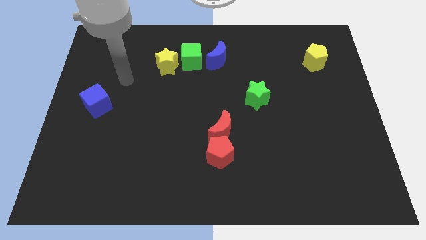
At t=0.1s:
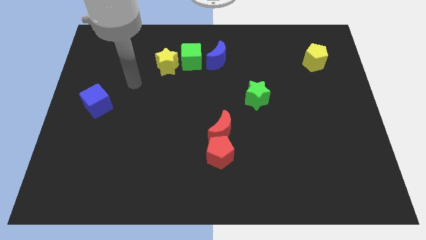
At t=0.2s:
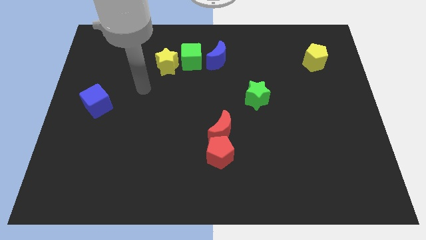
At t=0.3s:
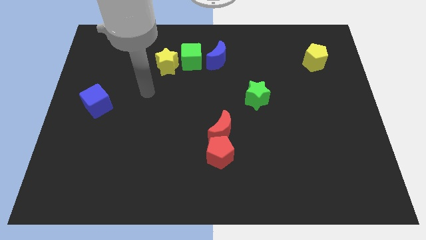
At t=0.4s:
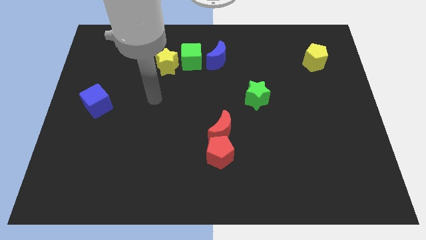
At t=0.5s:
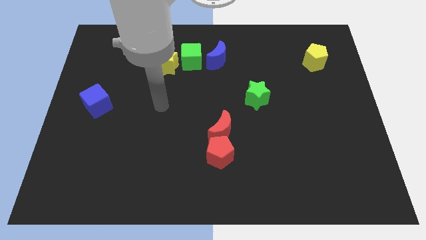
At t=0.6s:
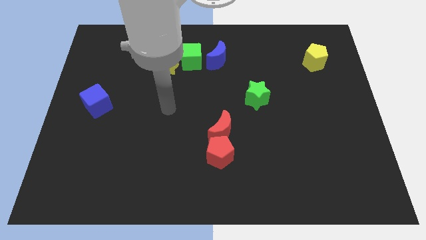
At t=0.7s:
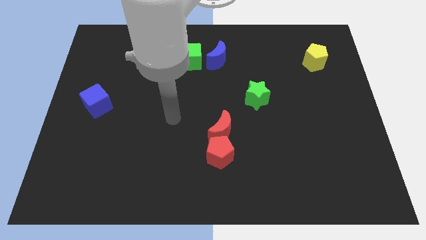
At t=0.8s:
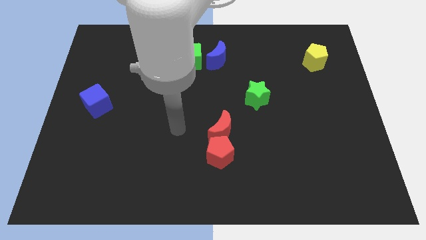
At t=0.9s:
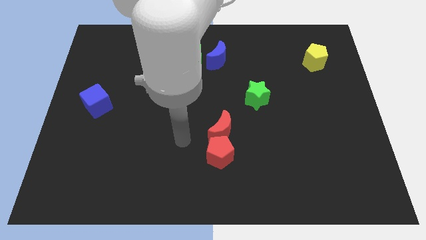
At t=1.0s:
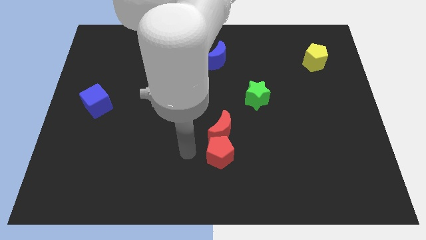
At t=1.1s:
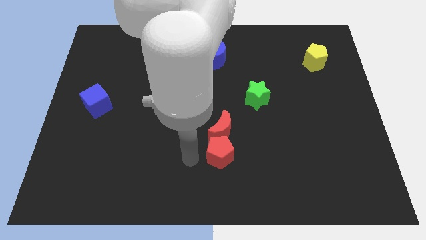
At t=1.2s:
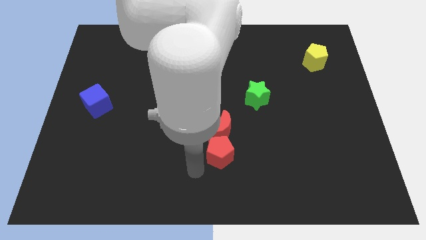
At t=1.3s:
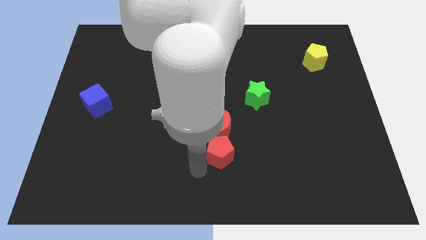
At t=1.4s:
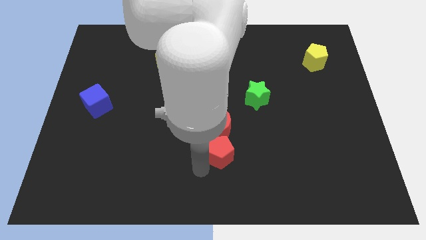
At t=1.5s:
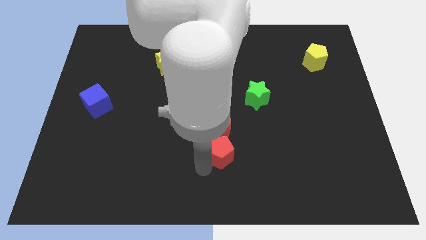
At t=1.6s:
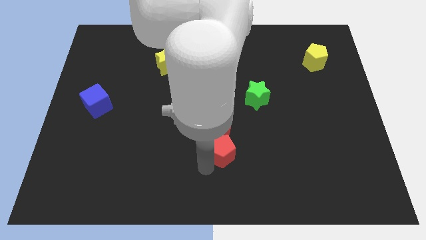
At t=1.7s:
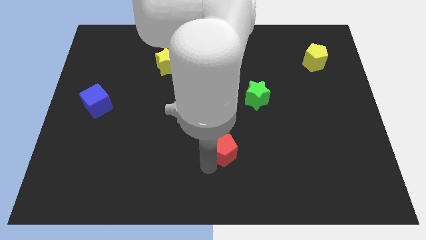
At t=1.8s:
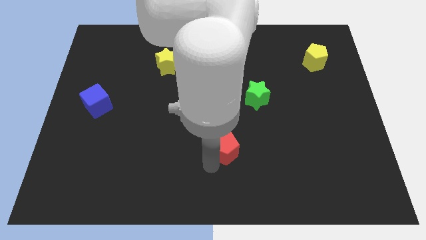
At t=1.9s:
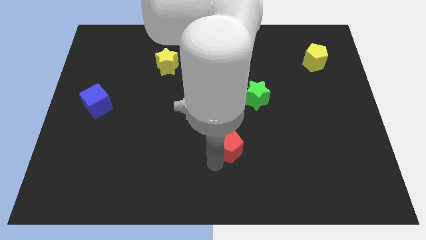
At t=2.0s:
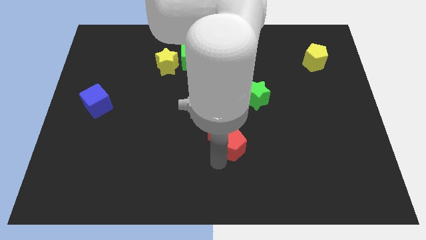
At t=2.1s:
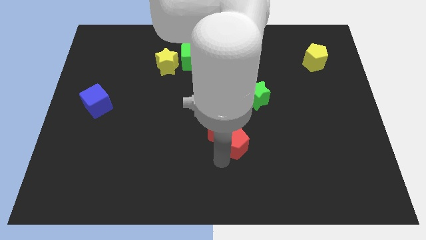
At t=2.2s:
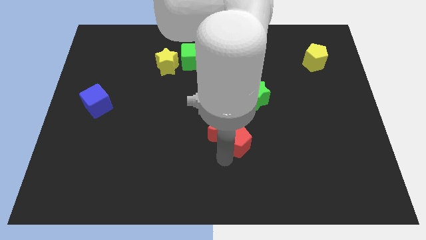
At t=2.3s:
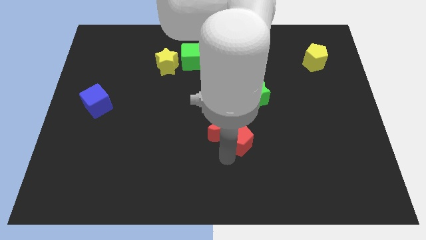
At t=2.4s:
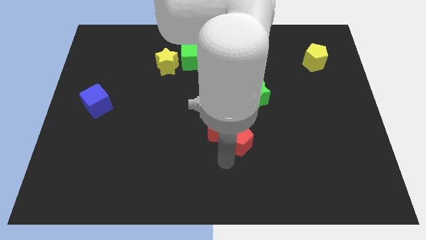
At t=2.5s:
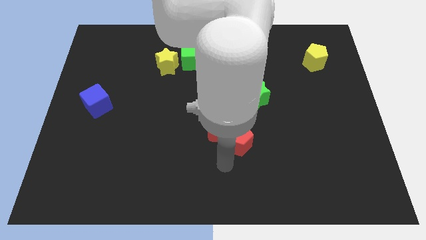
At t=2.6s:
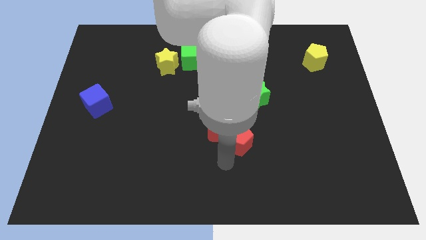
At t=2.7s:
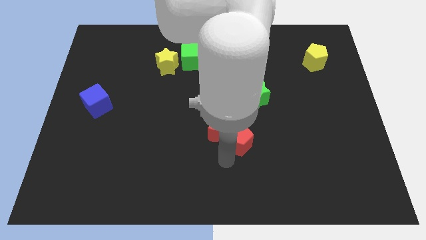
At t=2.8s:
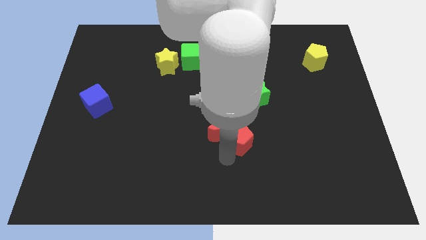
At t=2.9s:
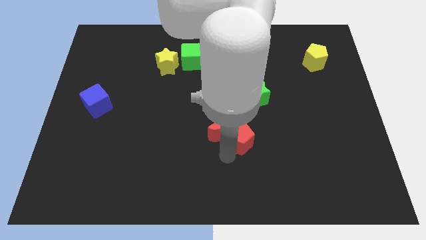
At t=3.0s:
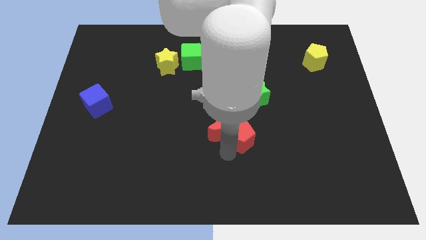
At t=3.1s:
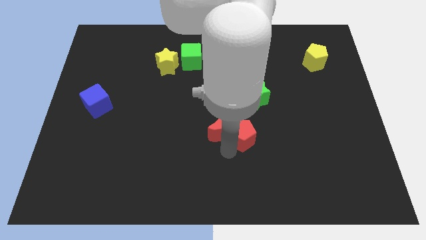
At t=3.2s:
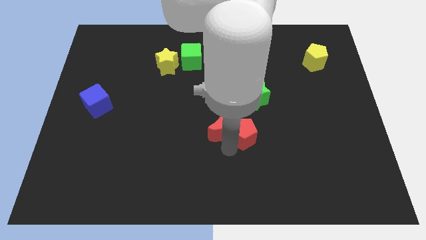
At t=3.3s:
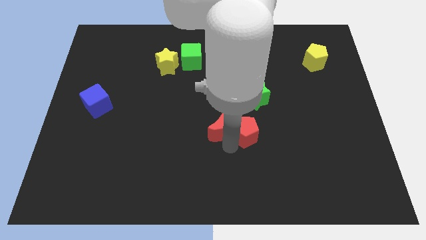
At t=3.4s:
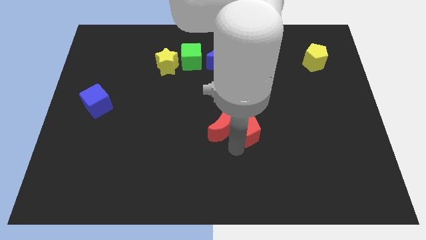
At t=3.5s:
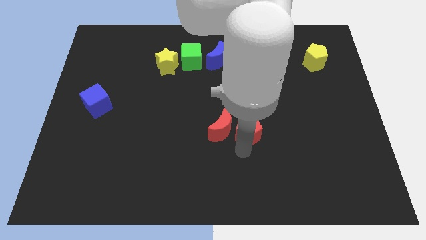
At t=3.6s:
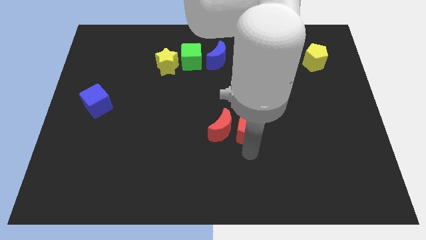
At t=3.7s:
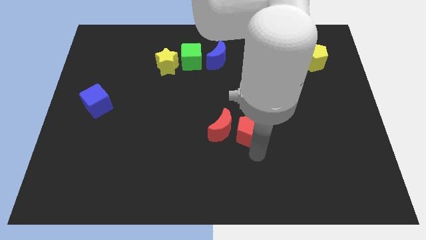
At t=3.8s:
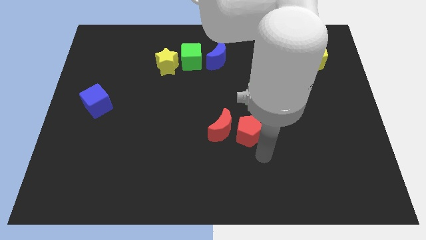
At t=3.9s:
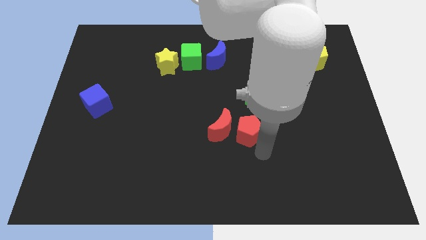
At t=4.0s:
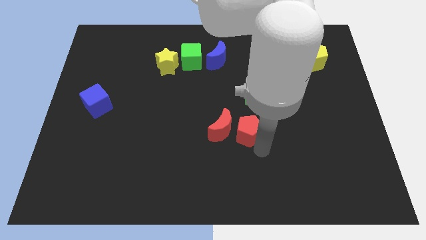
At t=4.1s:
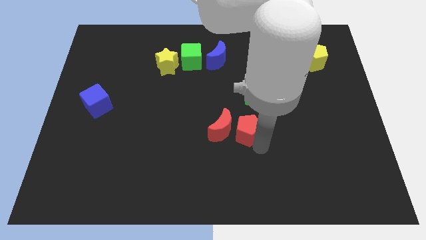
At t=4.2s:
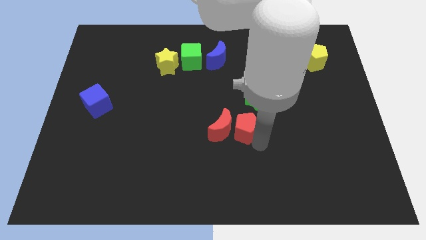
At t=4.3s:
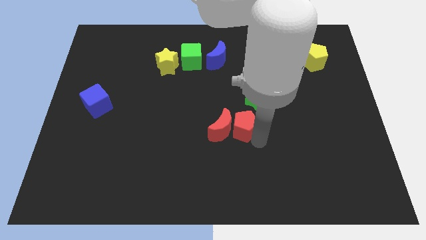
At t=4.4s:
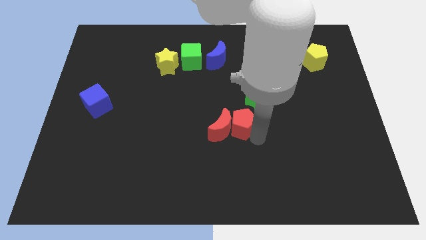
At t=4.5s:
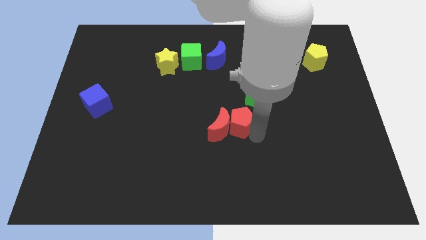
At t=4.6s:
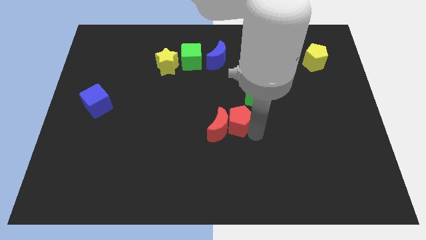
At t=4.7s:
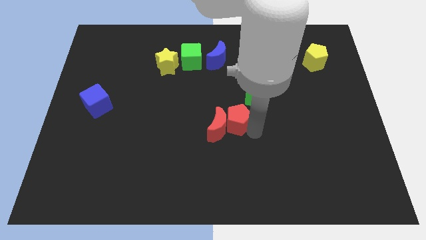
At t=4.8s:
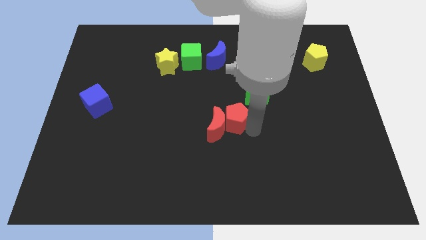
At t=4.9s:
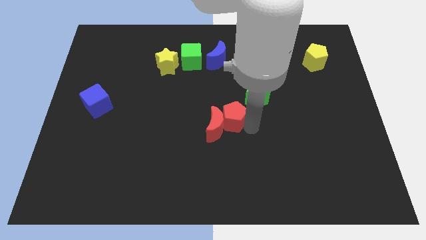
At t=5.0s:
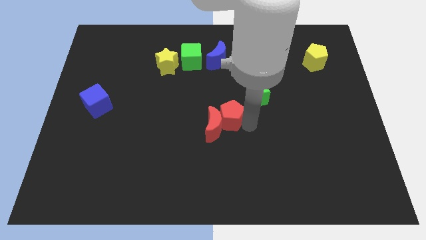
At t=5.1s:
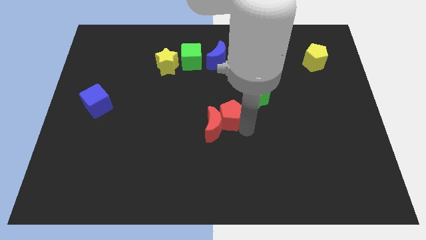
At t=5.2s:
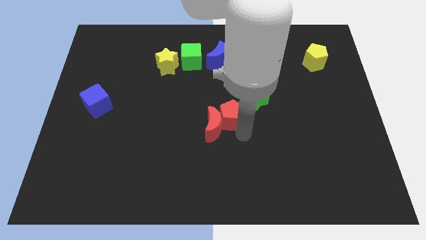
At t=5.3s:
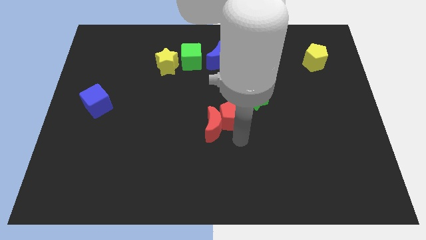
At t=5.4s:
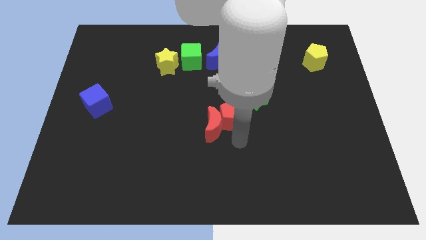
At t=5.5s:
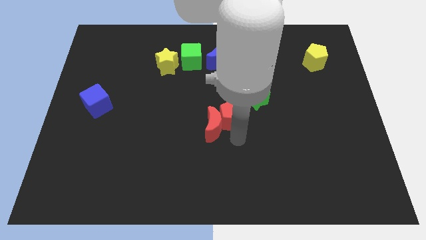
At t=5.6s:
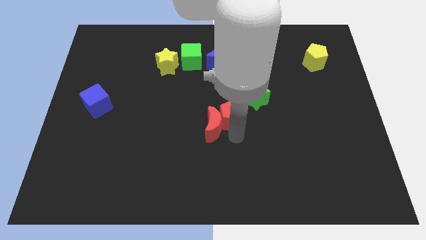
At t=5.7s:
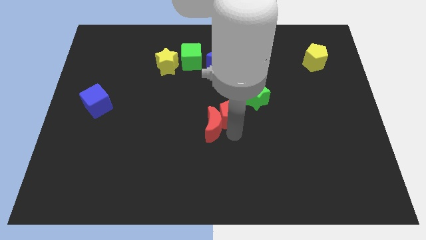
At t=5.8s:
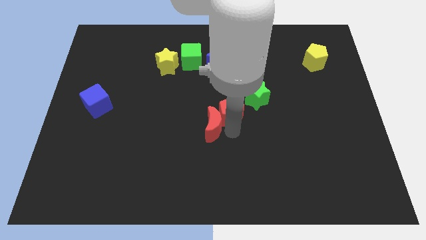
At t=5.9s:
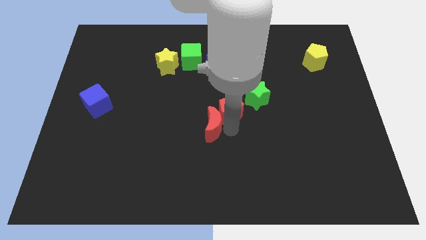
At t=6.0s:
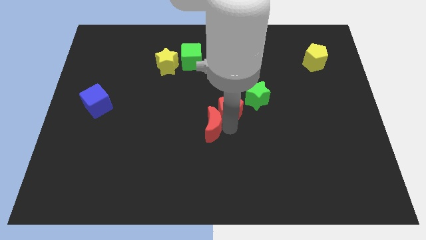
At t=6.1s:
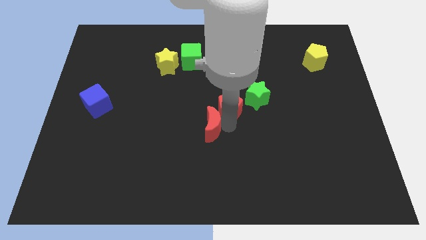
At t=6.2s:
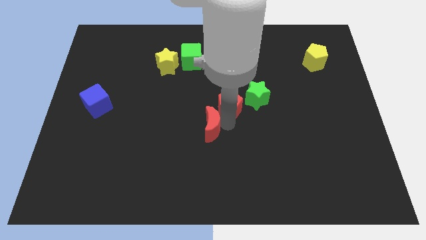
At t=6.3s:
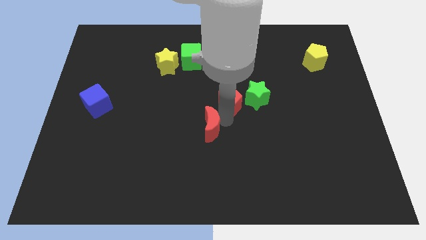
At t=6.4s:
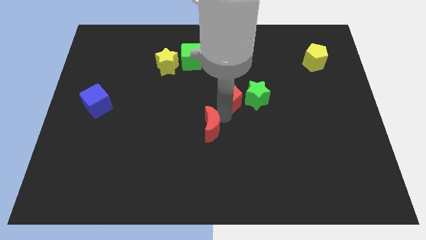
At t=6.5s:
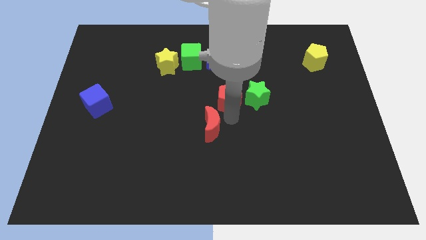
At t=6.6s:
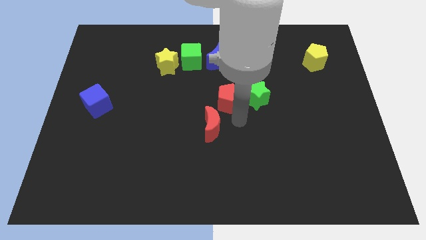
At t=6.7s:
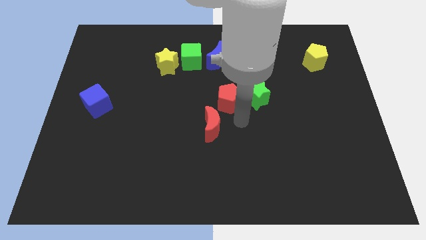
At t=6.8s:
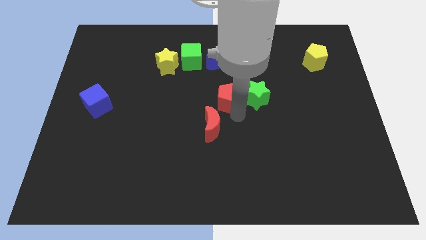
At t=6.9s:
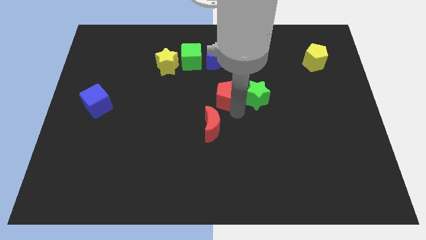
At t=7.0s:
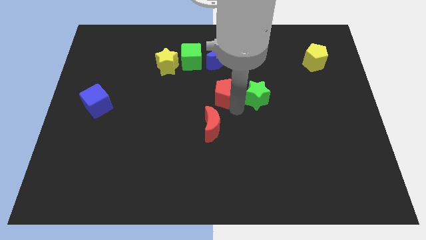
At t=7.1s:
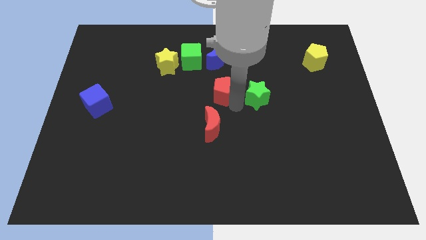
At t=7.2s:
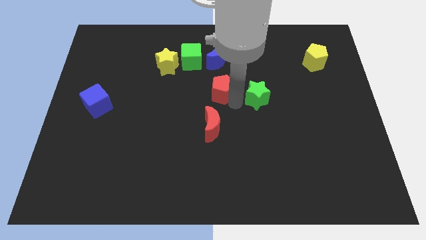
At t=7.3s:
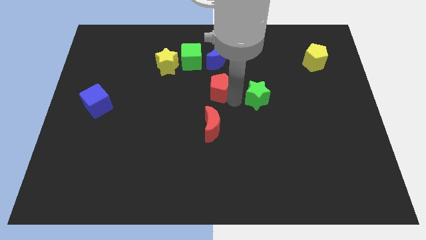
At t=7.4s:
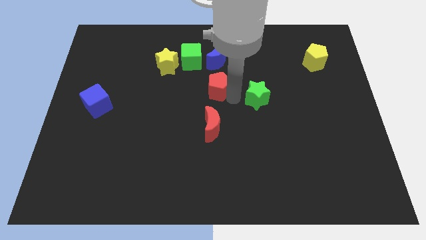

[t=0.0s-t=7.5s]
slide the red pentagon diagonally down and to the right of the green cube
